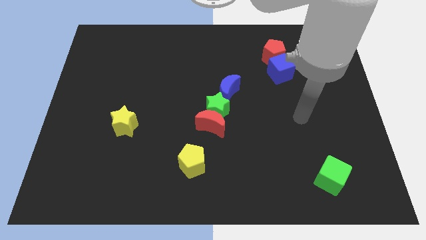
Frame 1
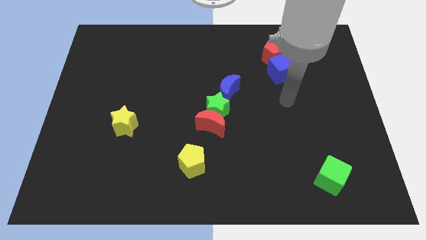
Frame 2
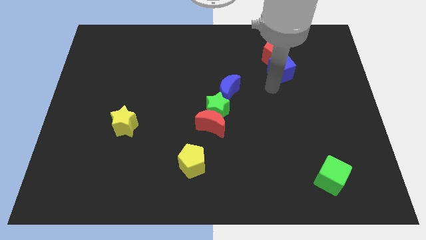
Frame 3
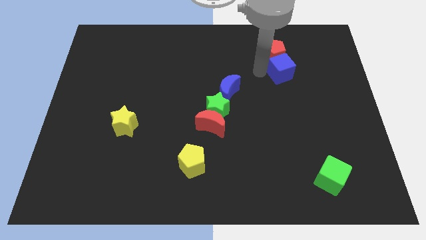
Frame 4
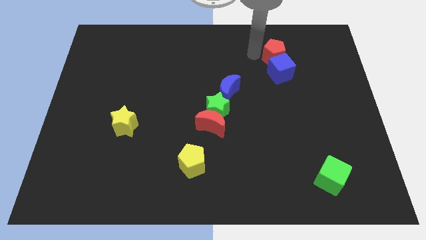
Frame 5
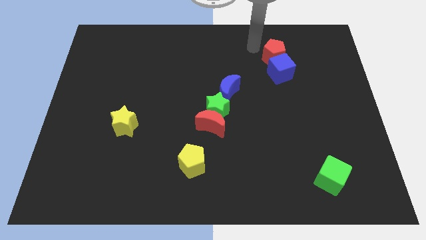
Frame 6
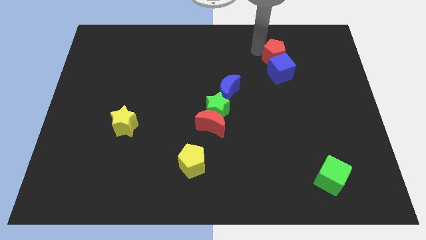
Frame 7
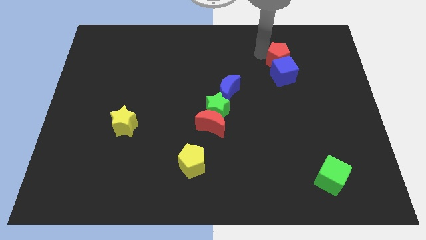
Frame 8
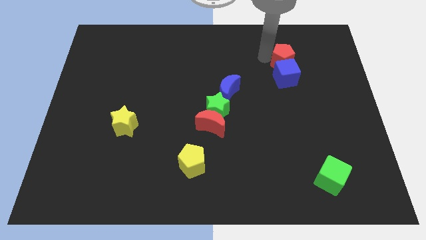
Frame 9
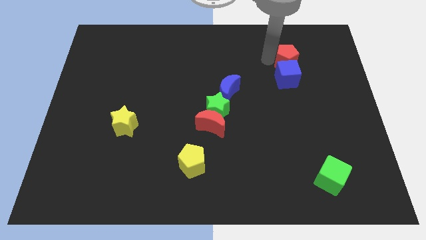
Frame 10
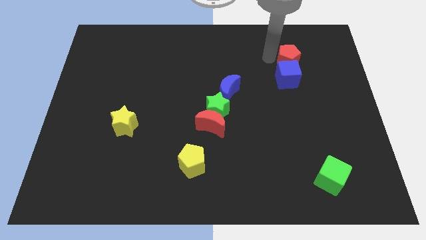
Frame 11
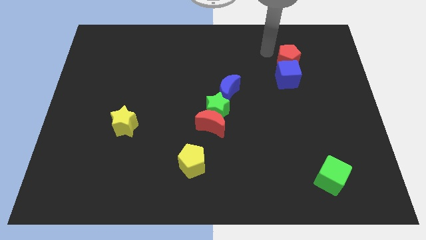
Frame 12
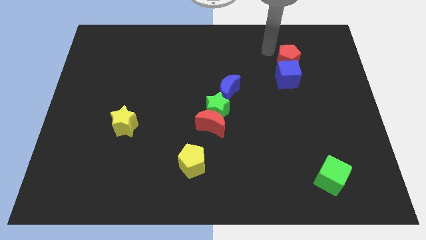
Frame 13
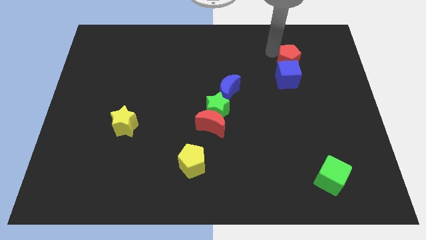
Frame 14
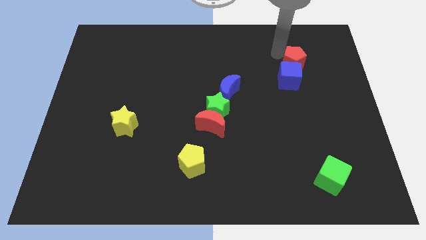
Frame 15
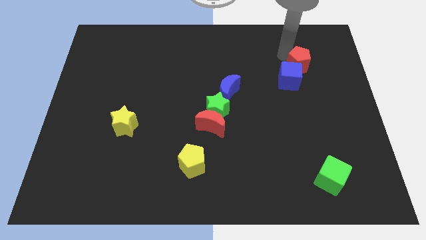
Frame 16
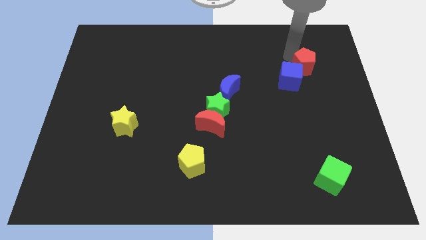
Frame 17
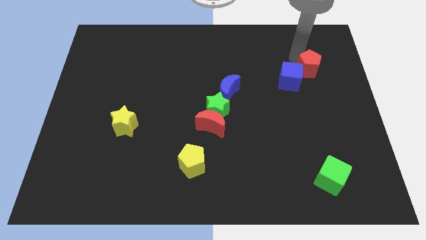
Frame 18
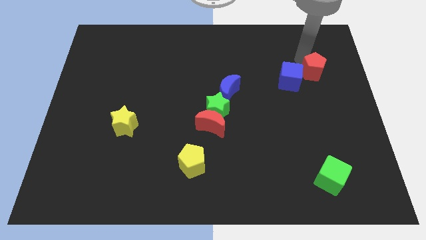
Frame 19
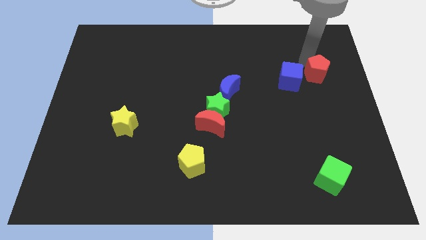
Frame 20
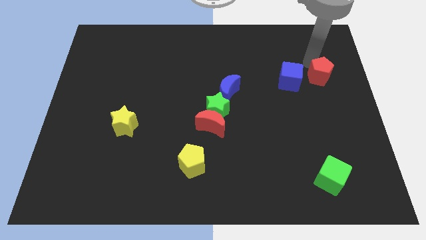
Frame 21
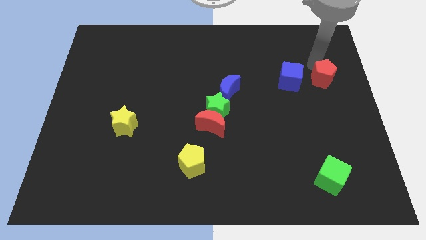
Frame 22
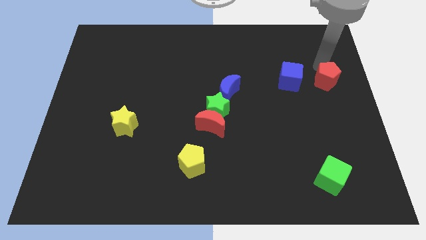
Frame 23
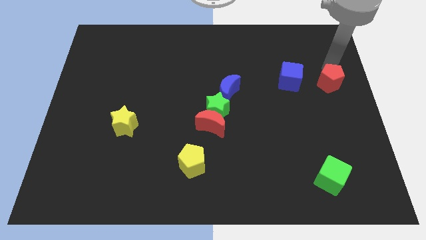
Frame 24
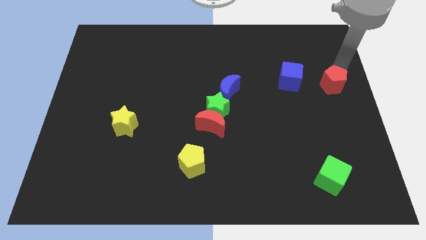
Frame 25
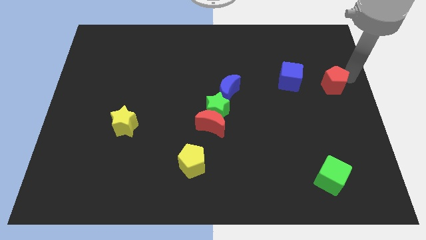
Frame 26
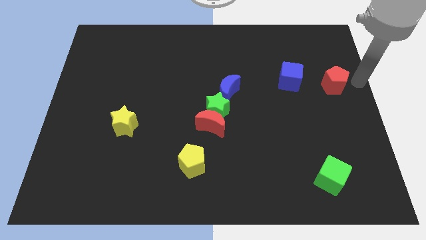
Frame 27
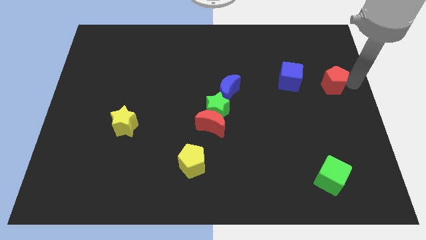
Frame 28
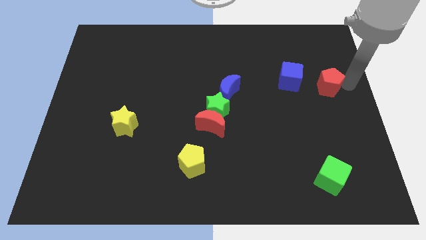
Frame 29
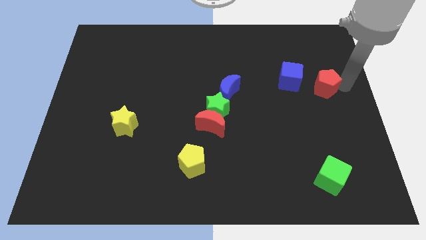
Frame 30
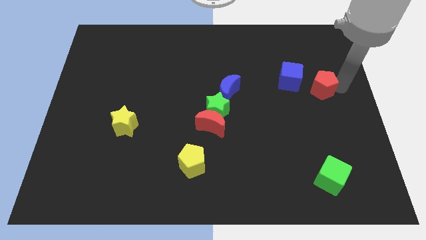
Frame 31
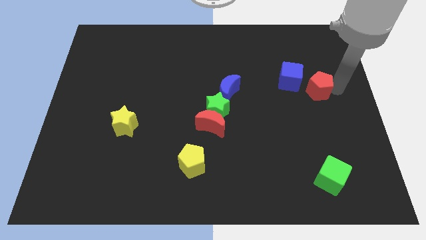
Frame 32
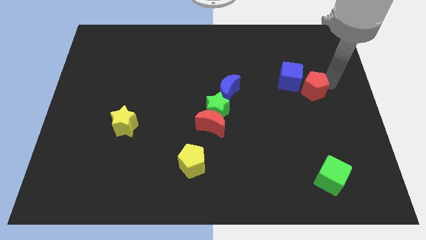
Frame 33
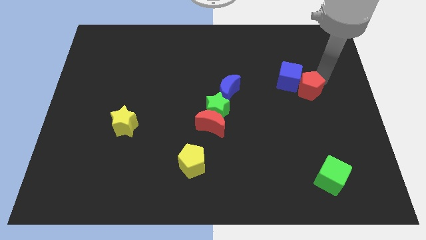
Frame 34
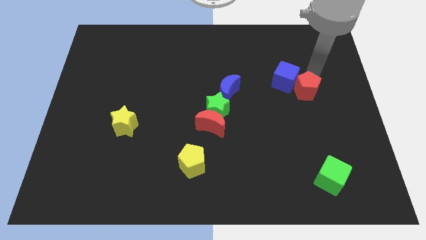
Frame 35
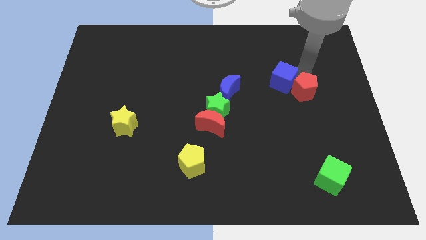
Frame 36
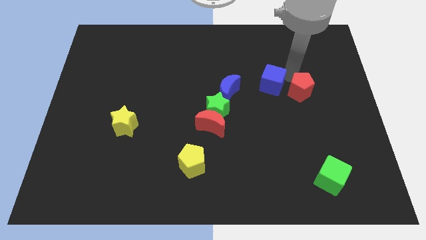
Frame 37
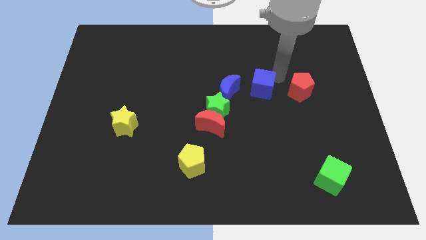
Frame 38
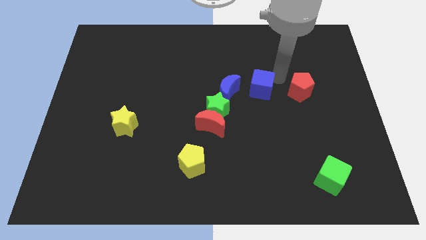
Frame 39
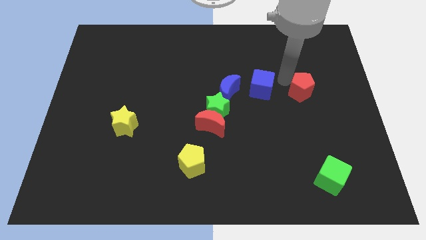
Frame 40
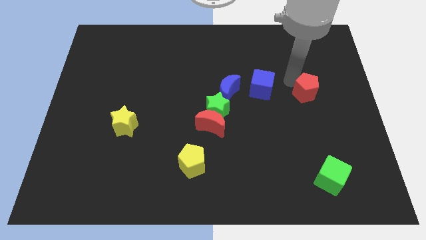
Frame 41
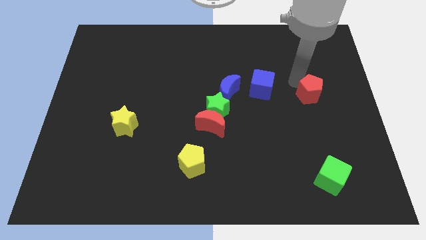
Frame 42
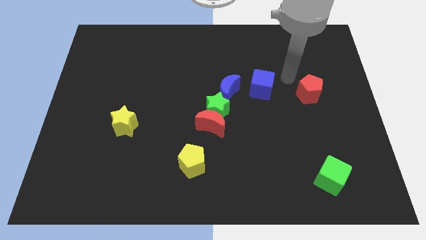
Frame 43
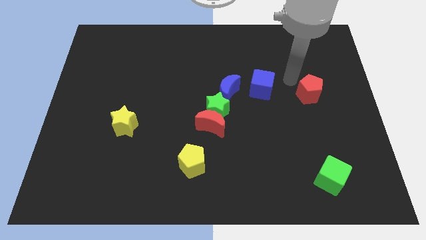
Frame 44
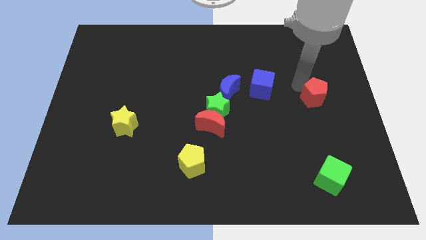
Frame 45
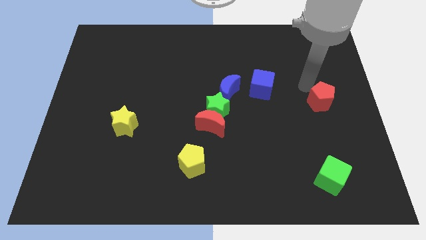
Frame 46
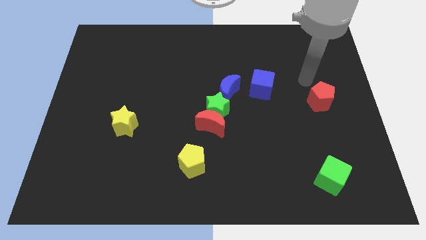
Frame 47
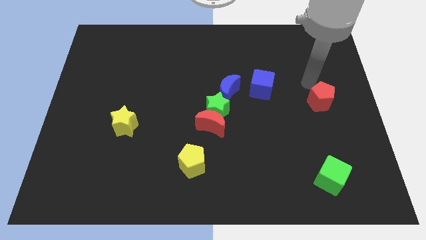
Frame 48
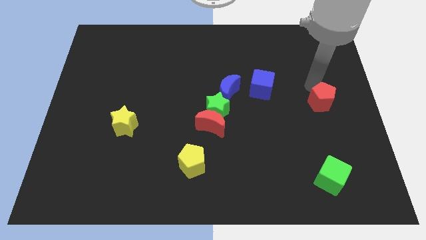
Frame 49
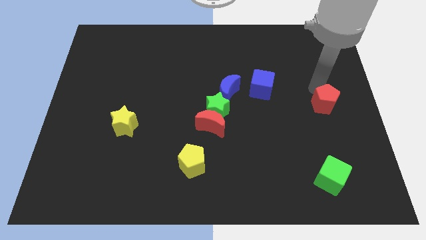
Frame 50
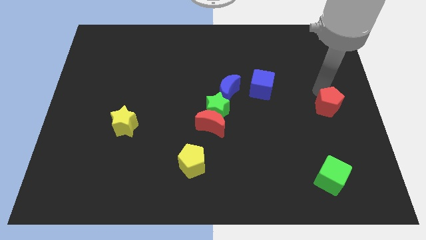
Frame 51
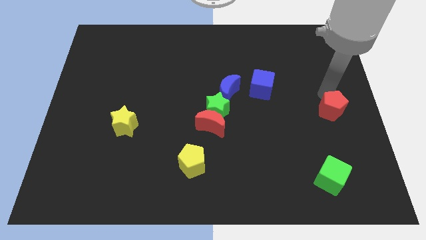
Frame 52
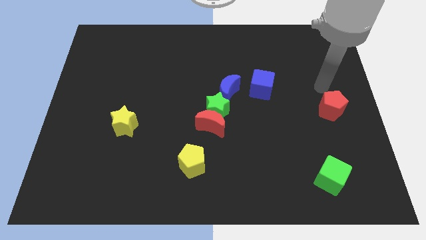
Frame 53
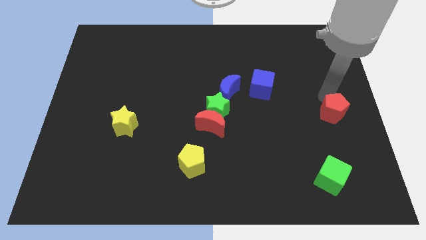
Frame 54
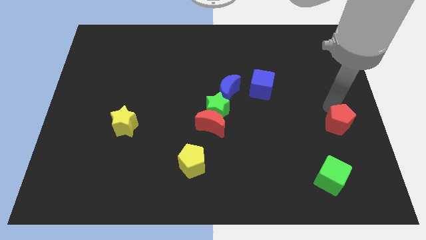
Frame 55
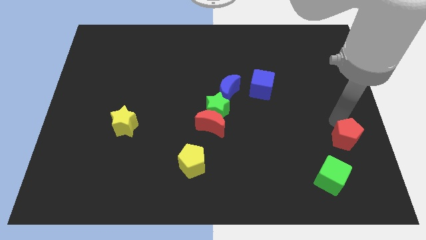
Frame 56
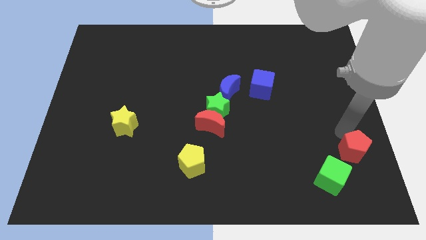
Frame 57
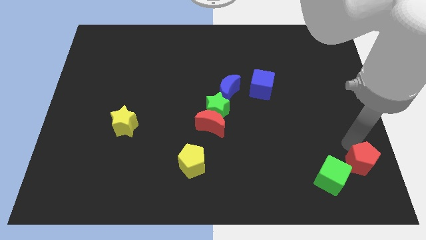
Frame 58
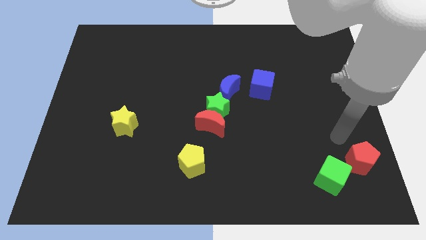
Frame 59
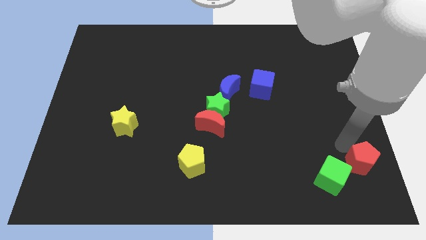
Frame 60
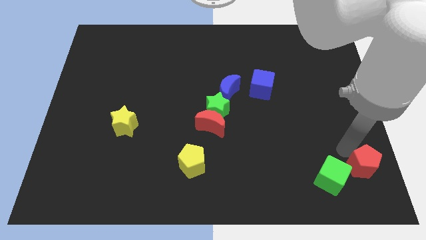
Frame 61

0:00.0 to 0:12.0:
move the red pentagon to the bottom right

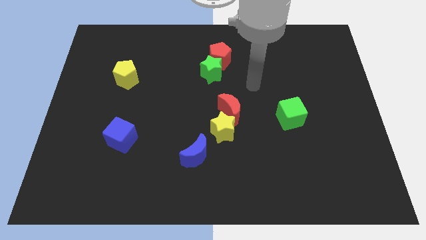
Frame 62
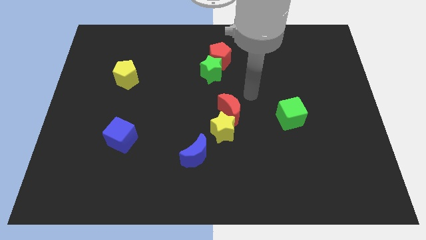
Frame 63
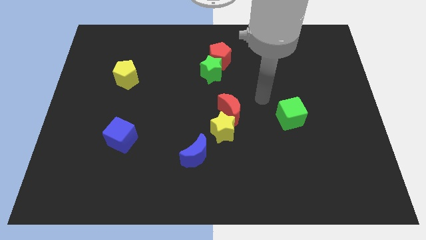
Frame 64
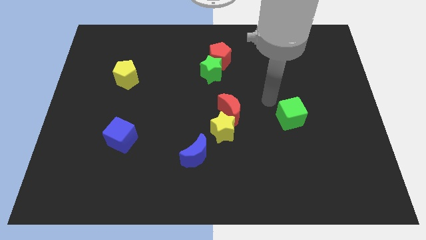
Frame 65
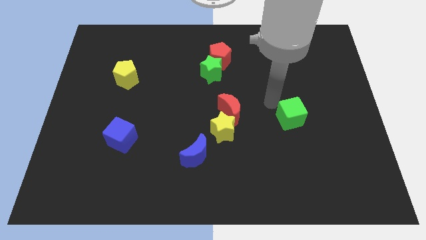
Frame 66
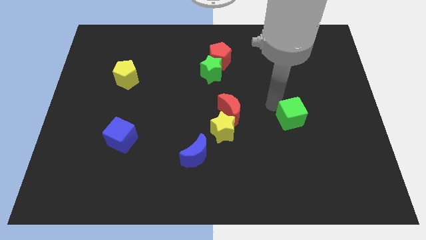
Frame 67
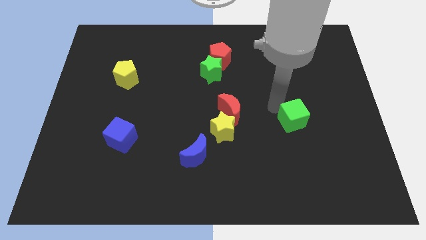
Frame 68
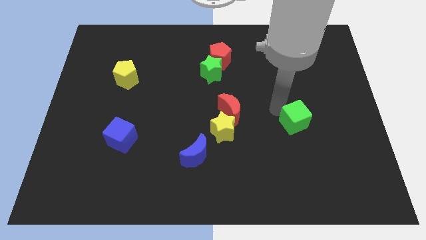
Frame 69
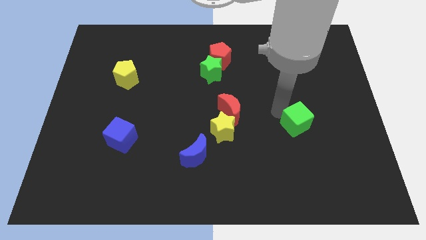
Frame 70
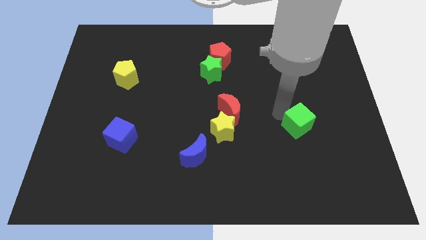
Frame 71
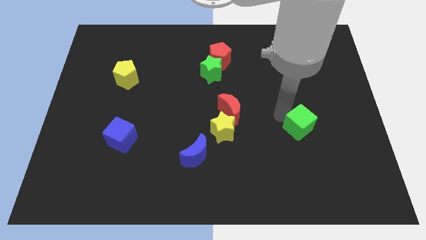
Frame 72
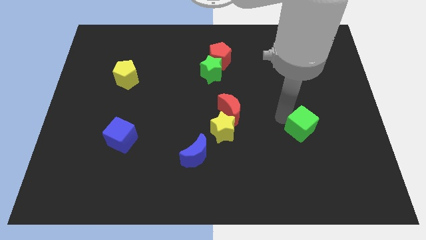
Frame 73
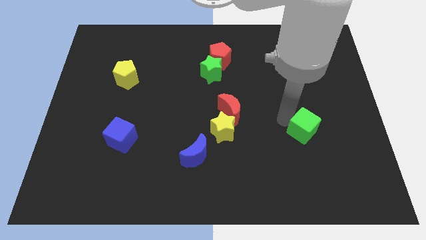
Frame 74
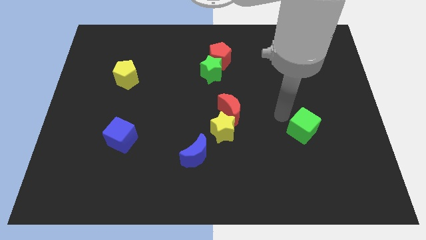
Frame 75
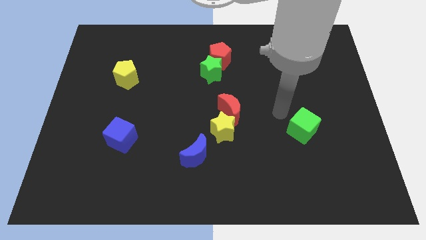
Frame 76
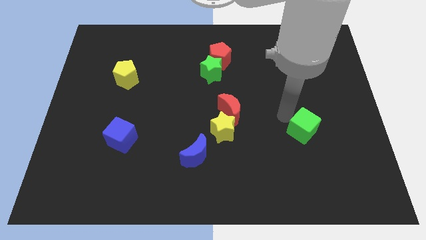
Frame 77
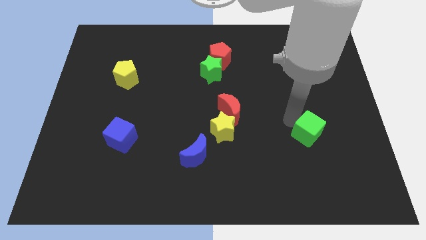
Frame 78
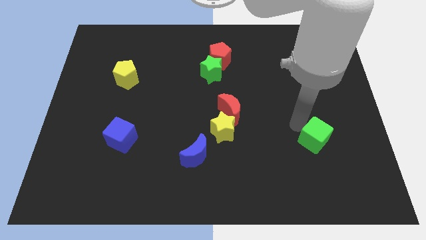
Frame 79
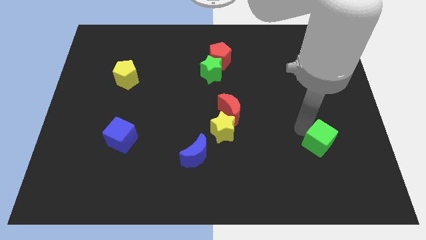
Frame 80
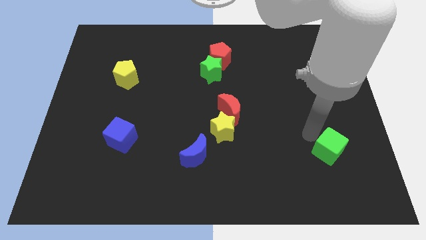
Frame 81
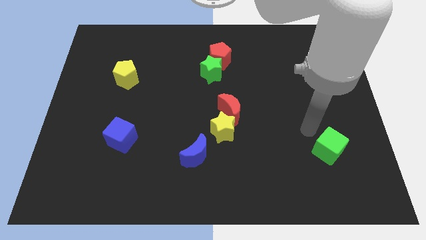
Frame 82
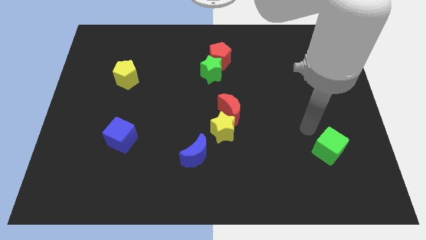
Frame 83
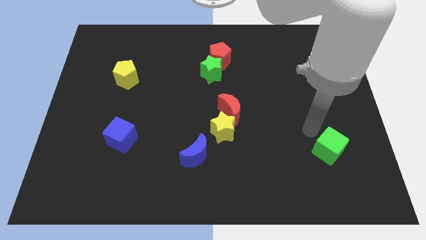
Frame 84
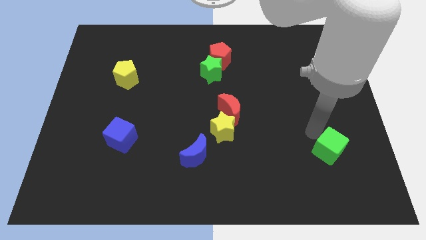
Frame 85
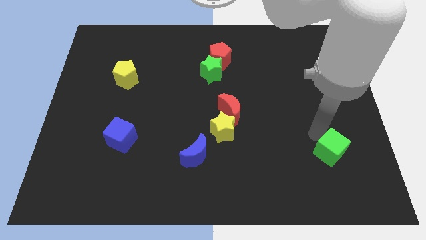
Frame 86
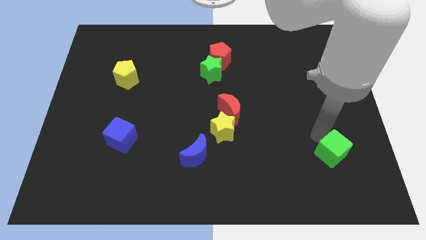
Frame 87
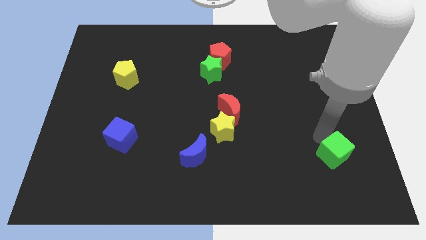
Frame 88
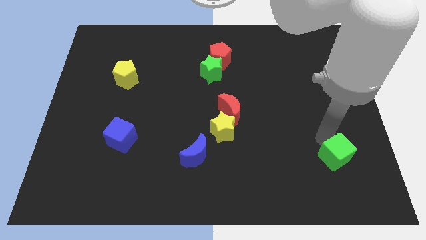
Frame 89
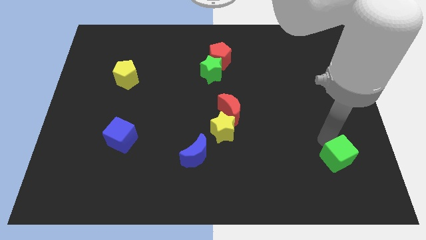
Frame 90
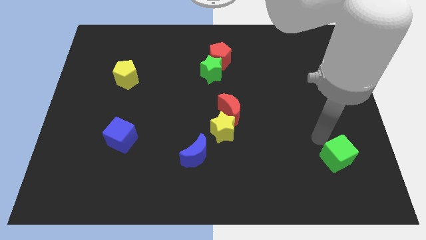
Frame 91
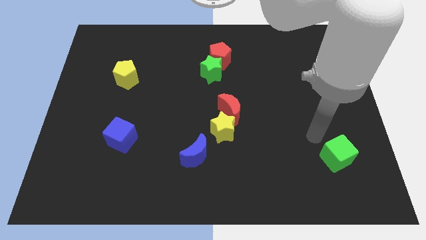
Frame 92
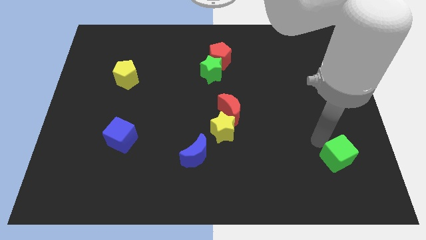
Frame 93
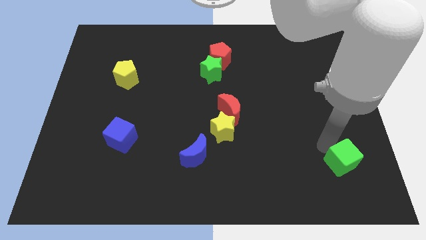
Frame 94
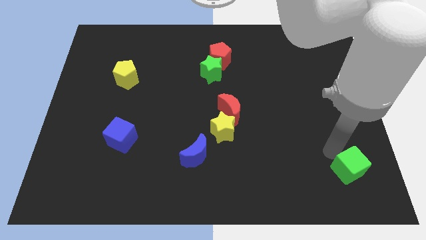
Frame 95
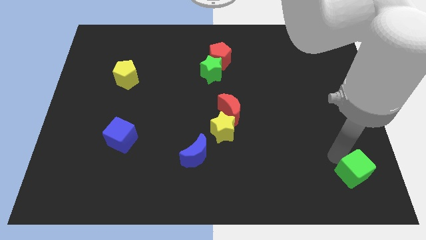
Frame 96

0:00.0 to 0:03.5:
push the green cube to the lower right corner
